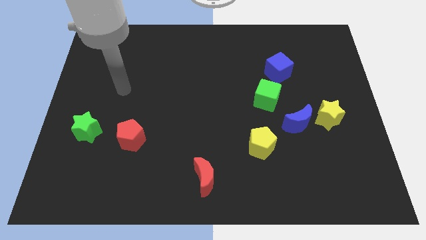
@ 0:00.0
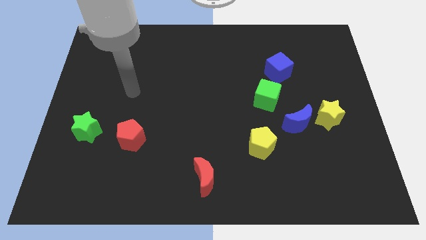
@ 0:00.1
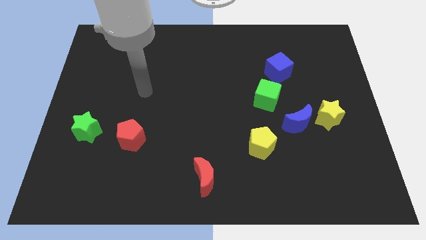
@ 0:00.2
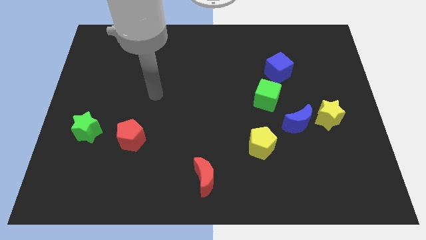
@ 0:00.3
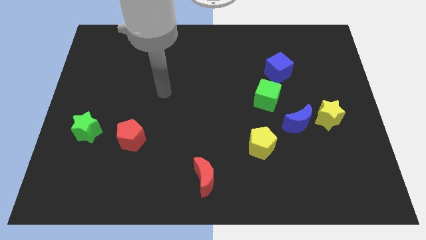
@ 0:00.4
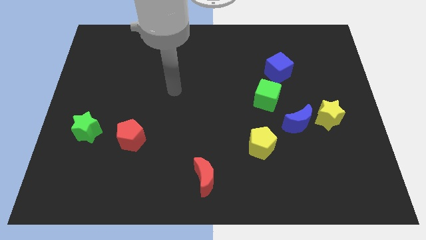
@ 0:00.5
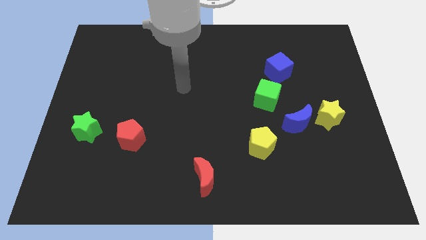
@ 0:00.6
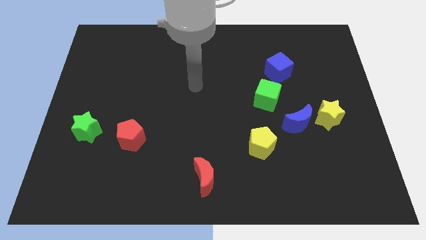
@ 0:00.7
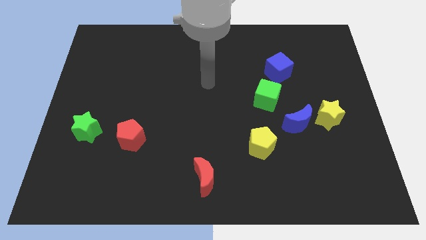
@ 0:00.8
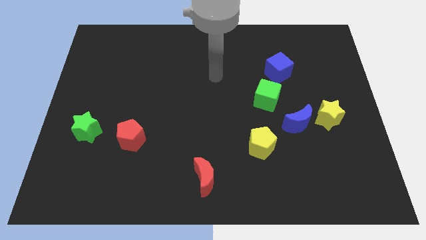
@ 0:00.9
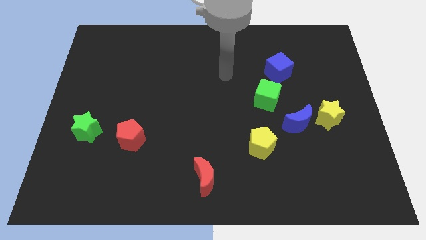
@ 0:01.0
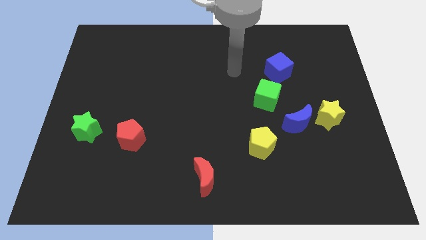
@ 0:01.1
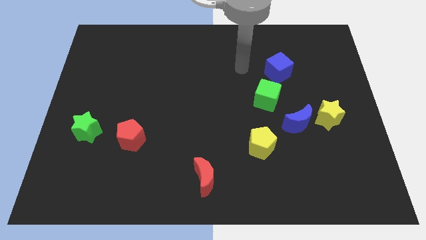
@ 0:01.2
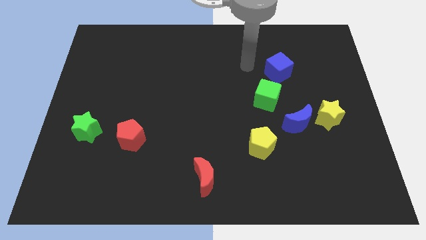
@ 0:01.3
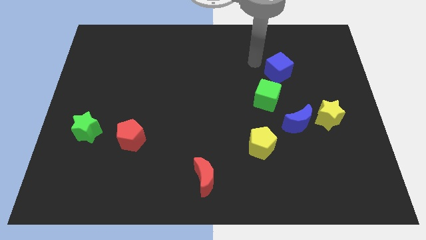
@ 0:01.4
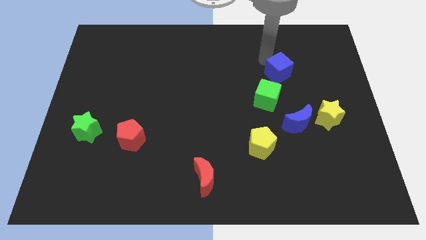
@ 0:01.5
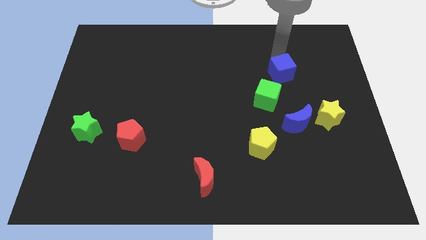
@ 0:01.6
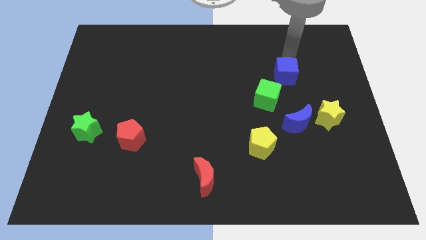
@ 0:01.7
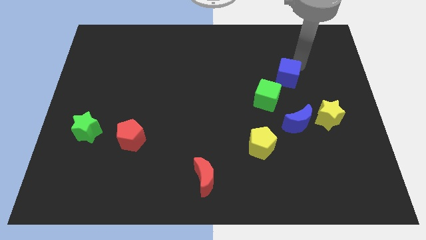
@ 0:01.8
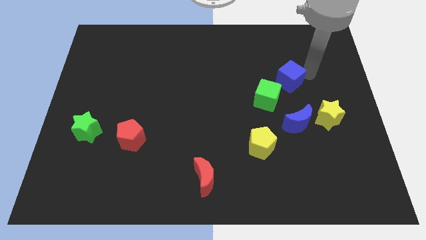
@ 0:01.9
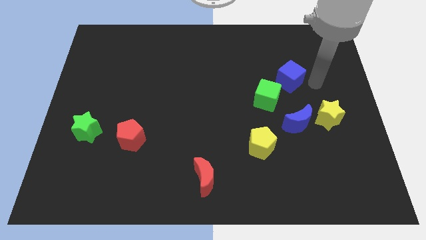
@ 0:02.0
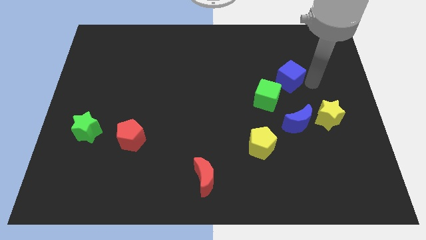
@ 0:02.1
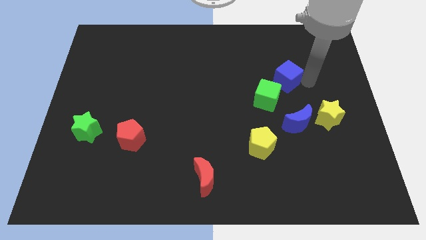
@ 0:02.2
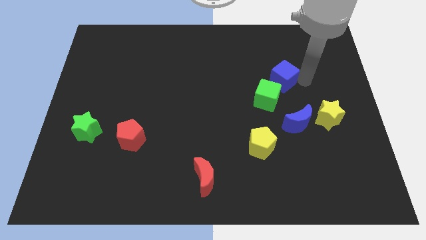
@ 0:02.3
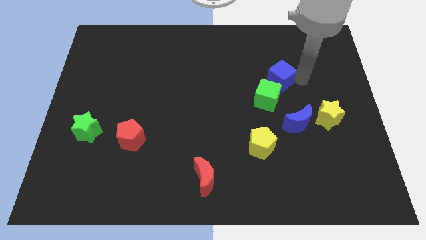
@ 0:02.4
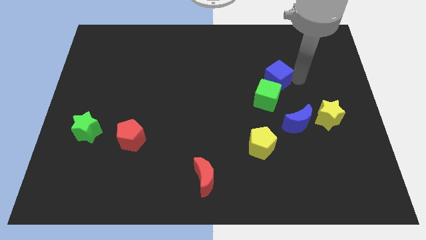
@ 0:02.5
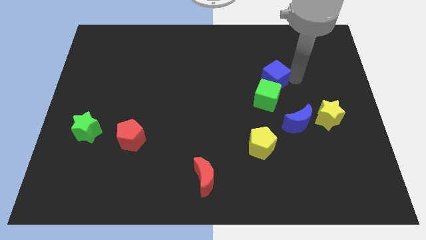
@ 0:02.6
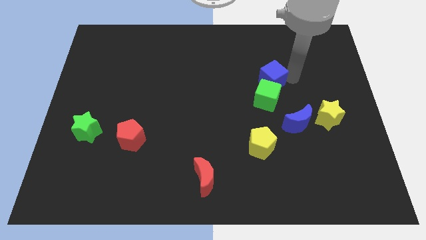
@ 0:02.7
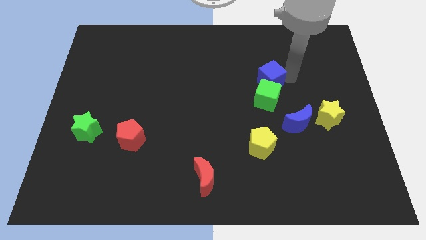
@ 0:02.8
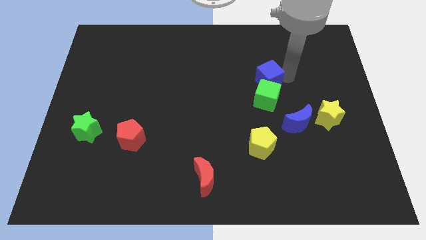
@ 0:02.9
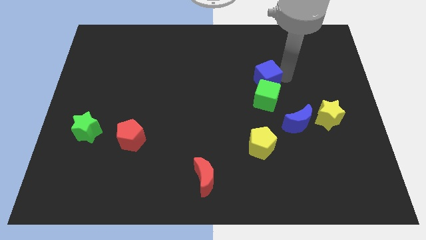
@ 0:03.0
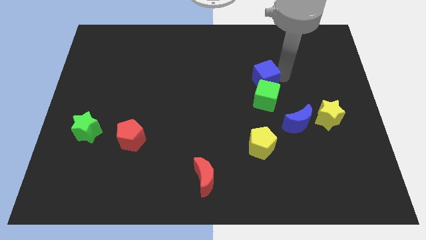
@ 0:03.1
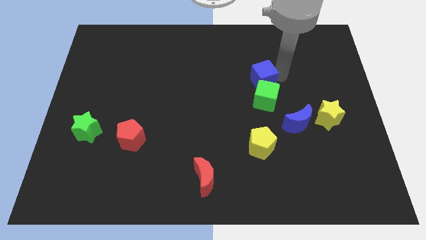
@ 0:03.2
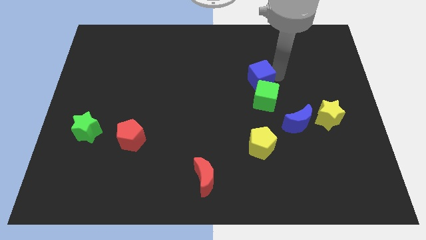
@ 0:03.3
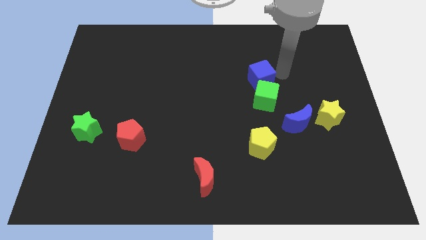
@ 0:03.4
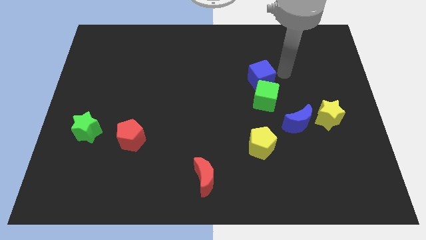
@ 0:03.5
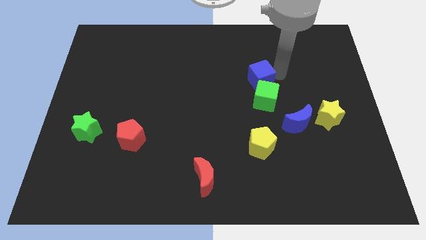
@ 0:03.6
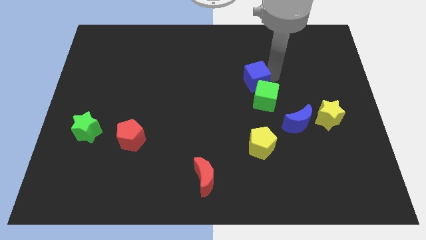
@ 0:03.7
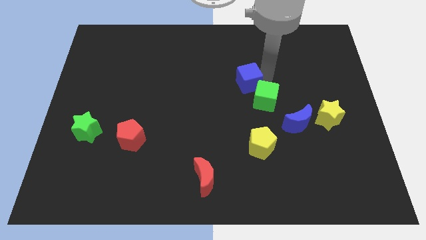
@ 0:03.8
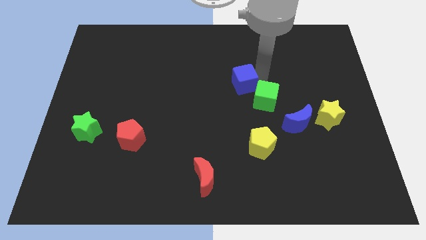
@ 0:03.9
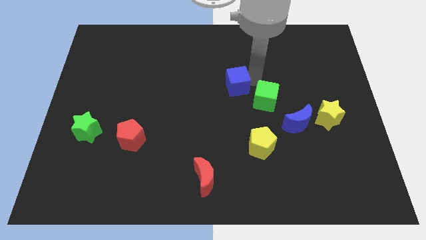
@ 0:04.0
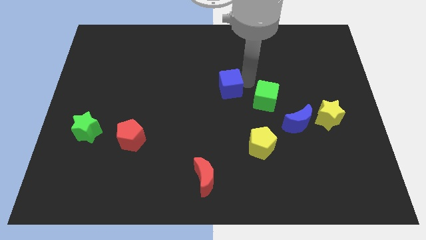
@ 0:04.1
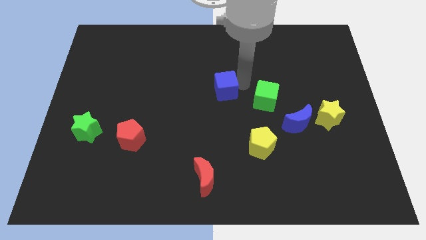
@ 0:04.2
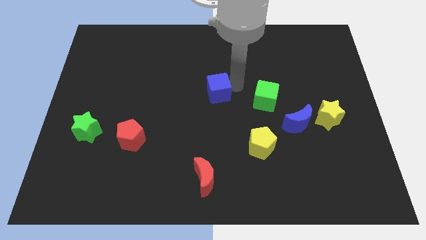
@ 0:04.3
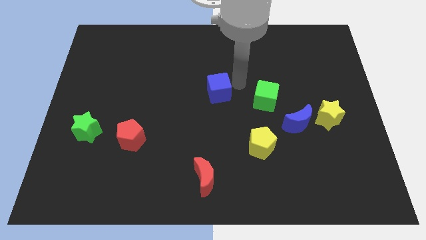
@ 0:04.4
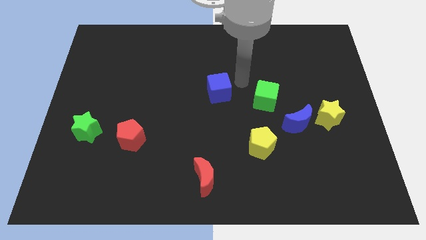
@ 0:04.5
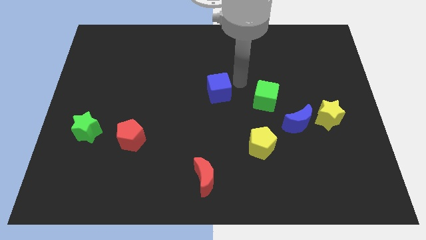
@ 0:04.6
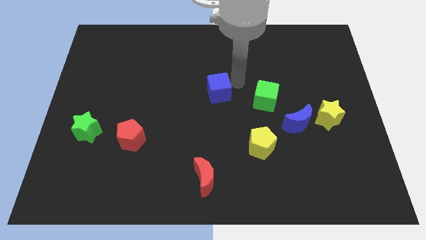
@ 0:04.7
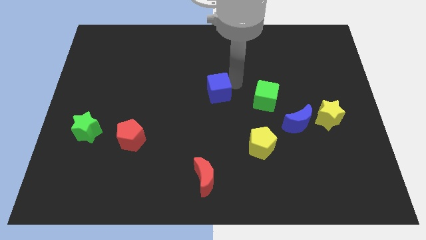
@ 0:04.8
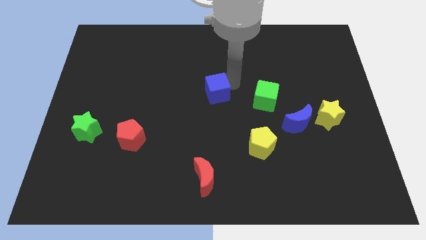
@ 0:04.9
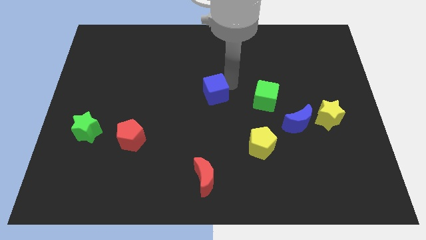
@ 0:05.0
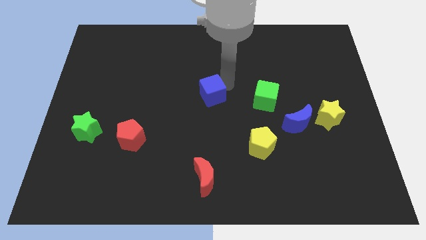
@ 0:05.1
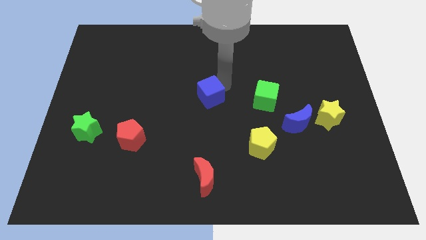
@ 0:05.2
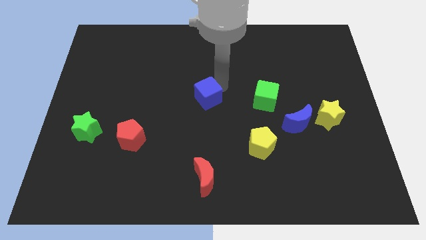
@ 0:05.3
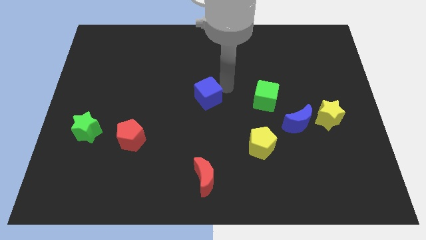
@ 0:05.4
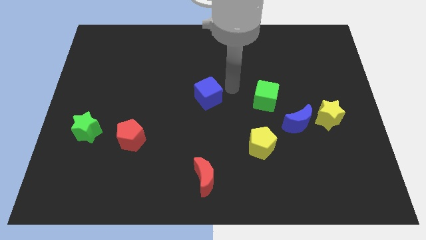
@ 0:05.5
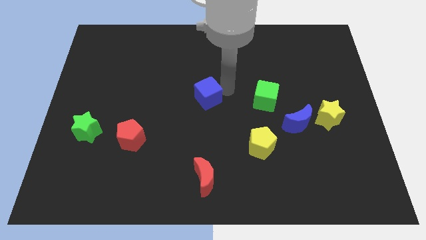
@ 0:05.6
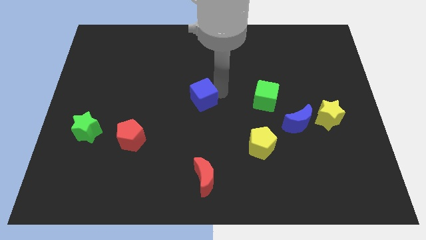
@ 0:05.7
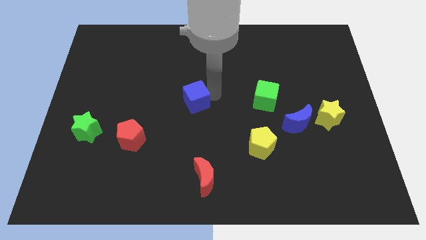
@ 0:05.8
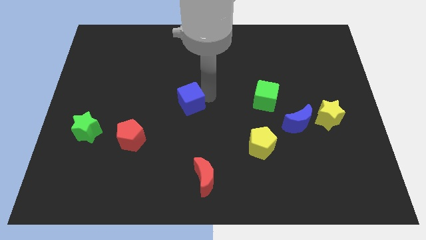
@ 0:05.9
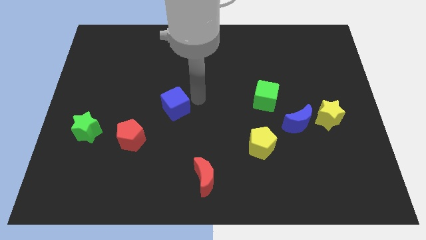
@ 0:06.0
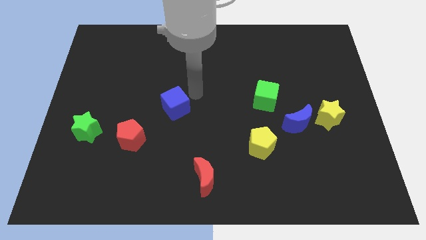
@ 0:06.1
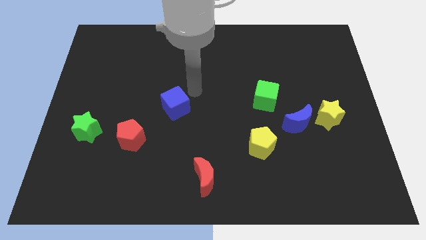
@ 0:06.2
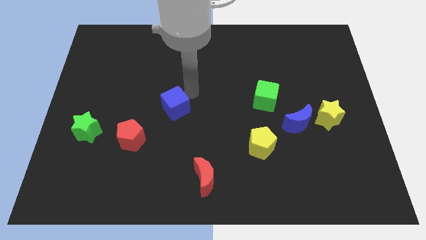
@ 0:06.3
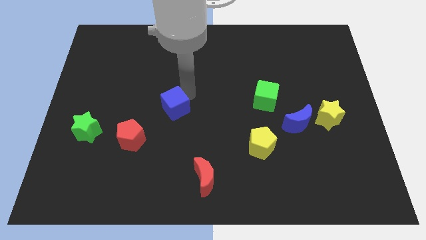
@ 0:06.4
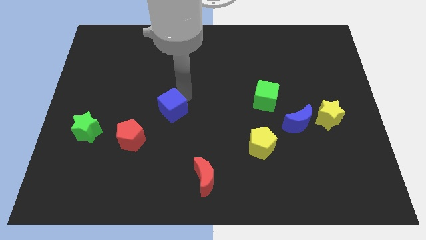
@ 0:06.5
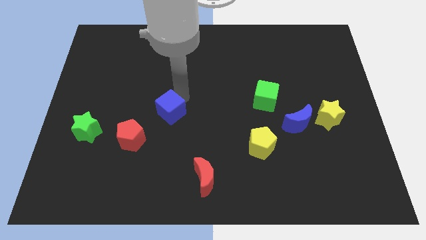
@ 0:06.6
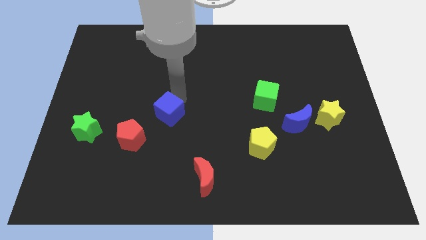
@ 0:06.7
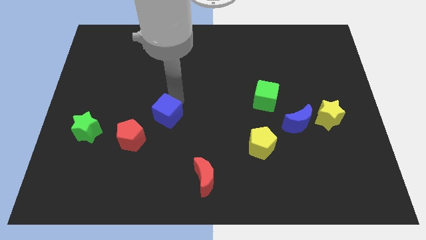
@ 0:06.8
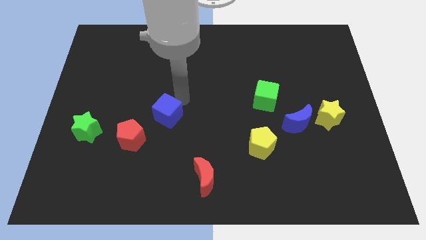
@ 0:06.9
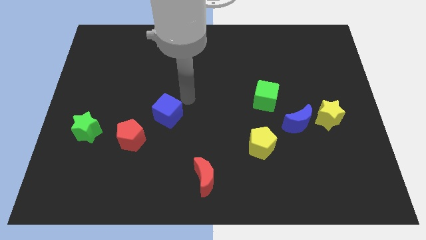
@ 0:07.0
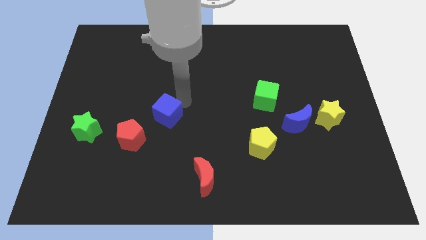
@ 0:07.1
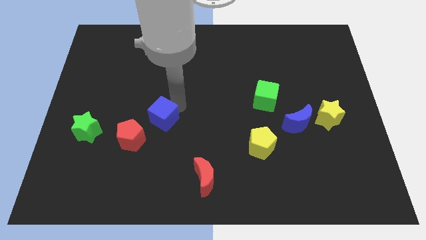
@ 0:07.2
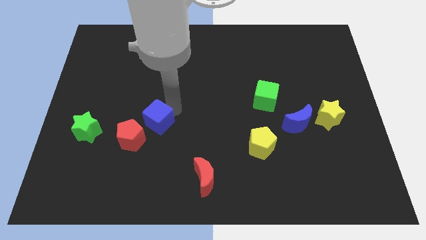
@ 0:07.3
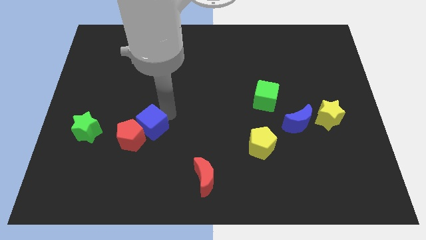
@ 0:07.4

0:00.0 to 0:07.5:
move the blue cube to the red pentagon

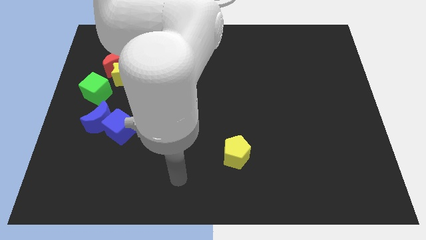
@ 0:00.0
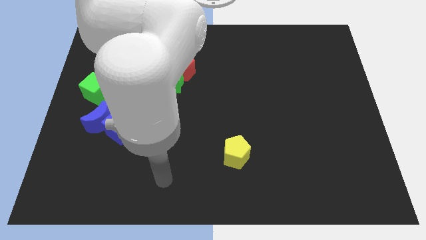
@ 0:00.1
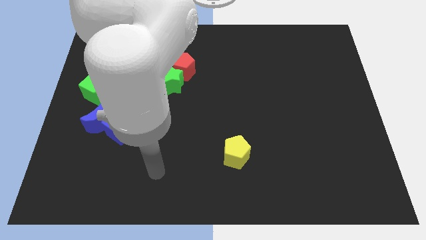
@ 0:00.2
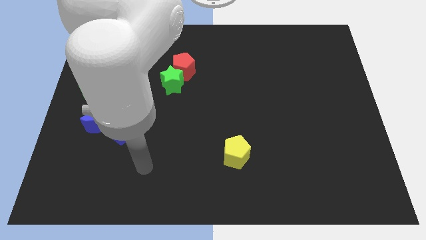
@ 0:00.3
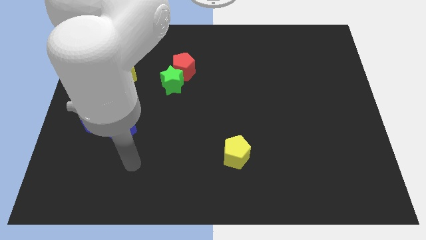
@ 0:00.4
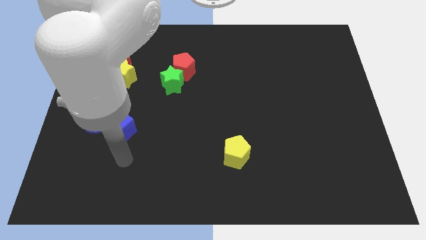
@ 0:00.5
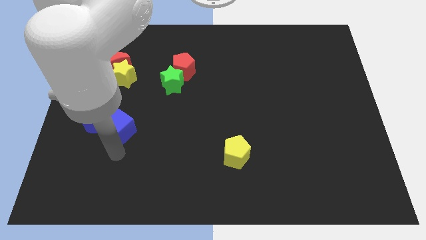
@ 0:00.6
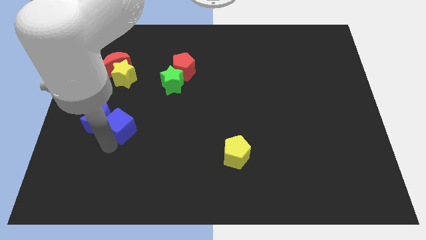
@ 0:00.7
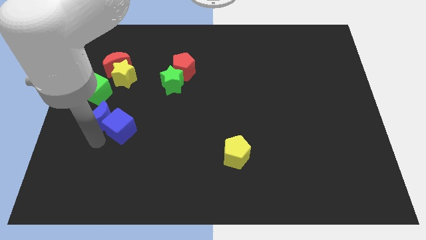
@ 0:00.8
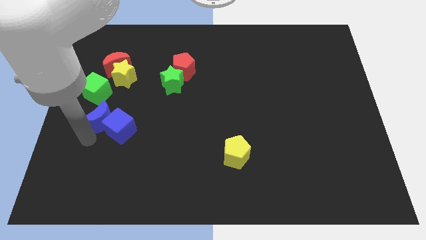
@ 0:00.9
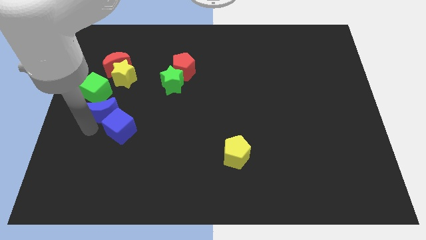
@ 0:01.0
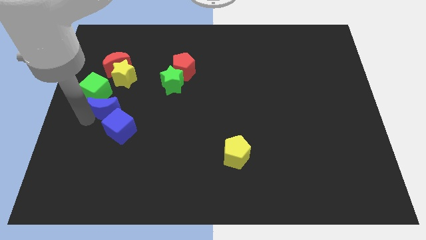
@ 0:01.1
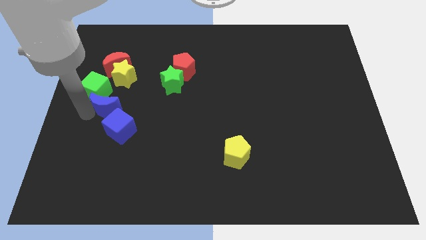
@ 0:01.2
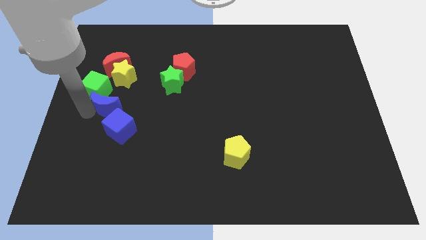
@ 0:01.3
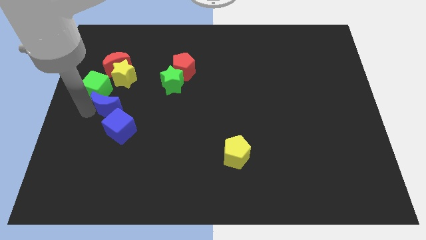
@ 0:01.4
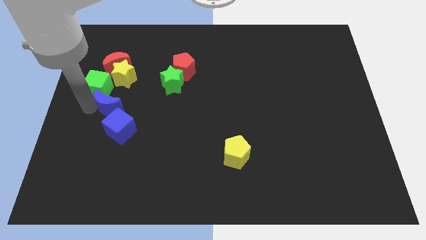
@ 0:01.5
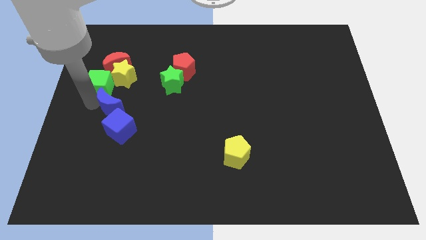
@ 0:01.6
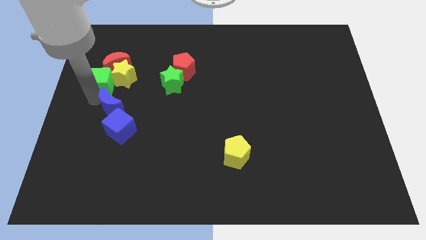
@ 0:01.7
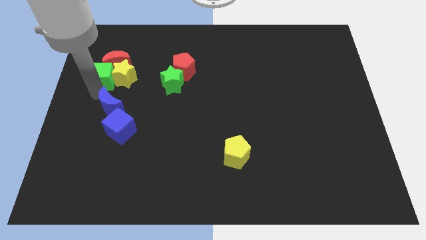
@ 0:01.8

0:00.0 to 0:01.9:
put the green cube to the red moon
